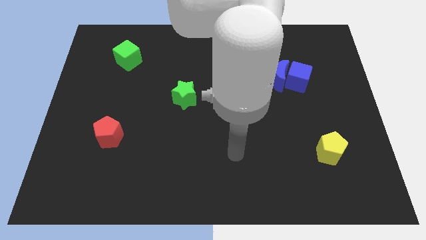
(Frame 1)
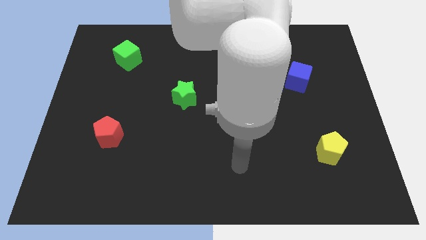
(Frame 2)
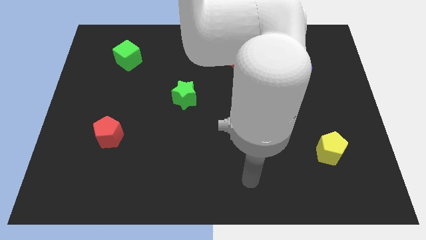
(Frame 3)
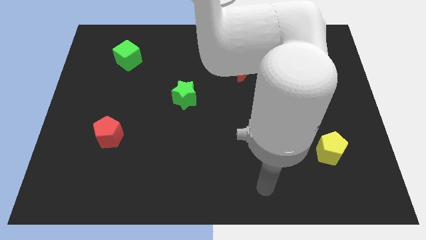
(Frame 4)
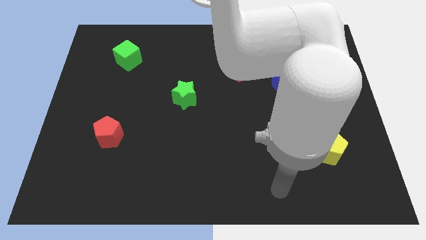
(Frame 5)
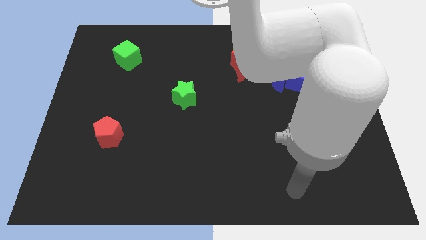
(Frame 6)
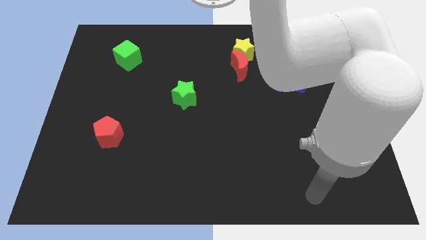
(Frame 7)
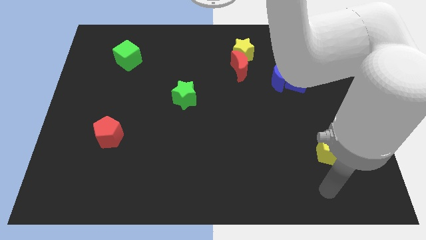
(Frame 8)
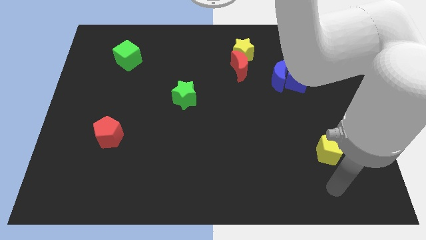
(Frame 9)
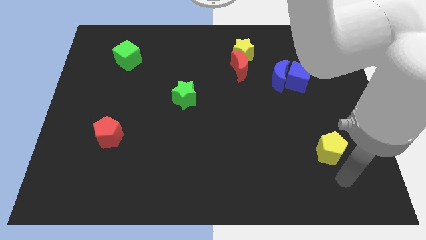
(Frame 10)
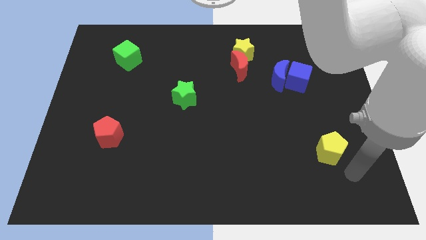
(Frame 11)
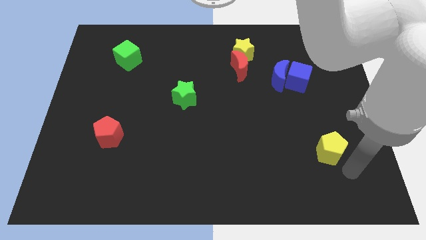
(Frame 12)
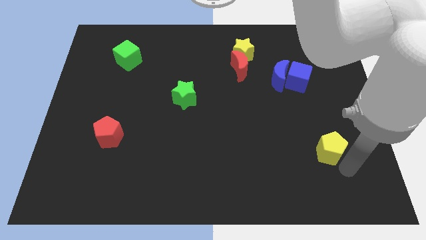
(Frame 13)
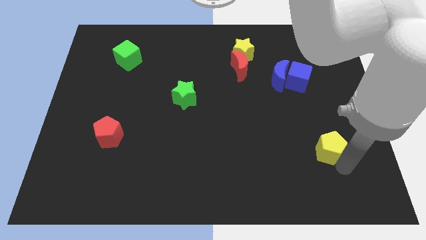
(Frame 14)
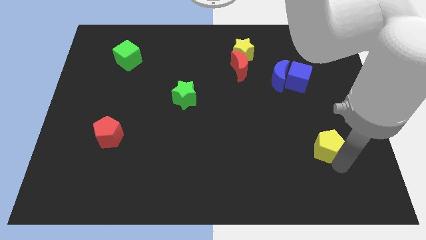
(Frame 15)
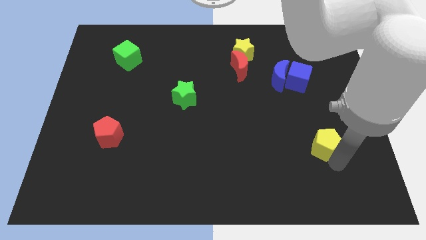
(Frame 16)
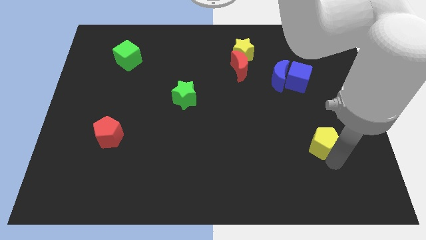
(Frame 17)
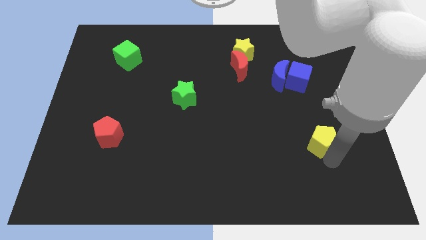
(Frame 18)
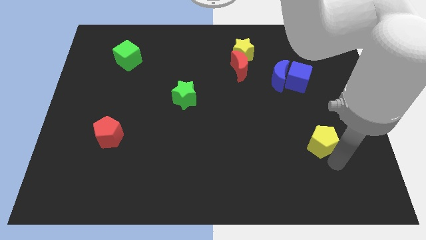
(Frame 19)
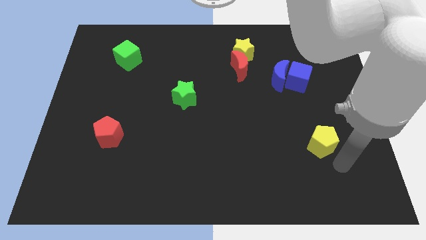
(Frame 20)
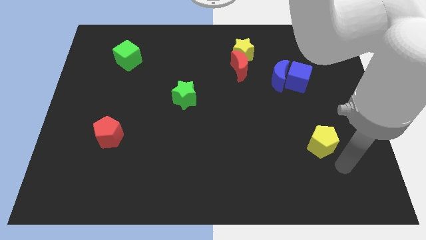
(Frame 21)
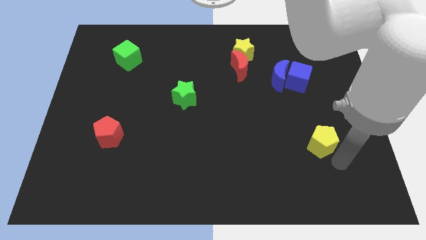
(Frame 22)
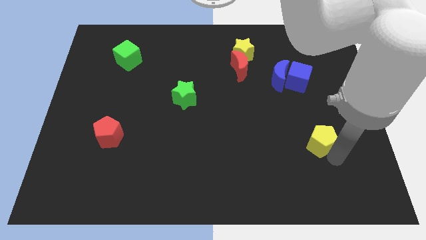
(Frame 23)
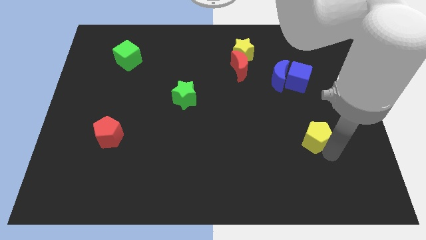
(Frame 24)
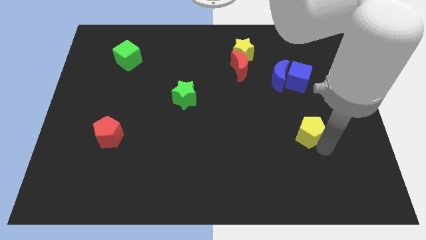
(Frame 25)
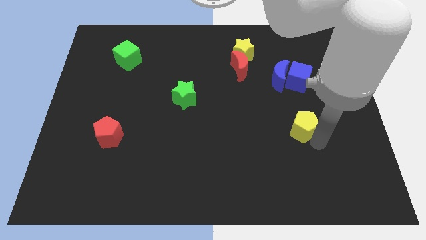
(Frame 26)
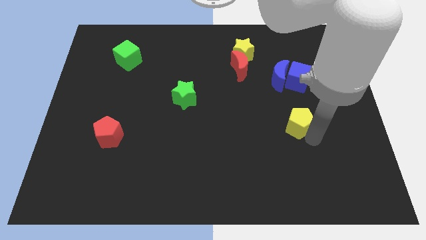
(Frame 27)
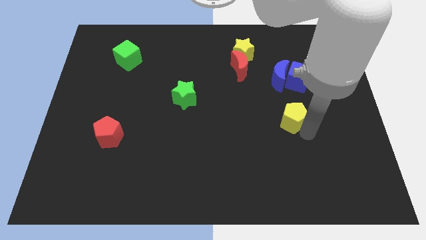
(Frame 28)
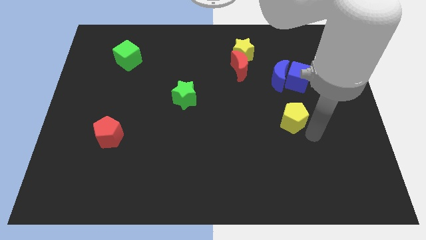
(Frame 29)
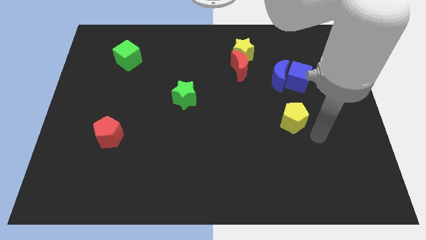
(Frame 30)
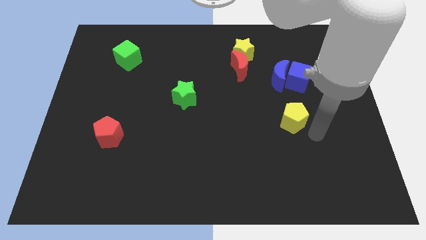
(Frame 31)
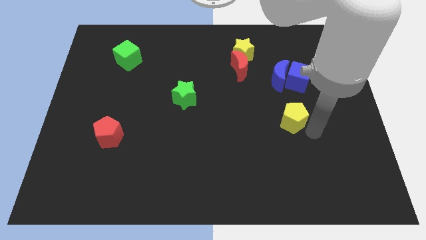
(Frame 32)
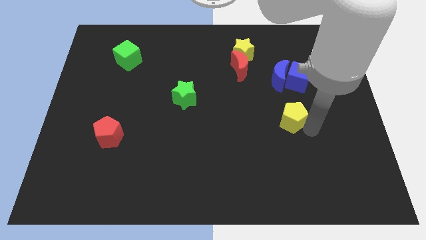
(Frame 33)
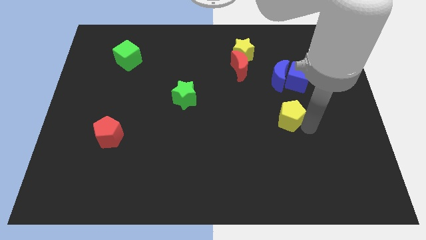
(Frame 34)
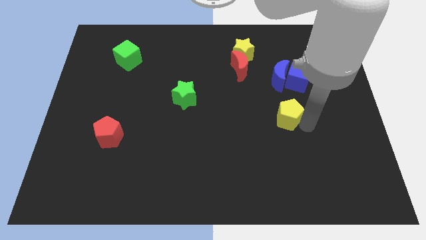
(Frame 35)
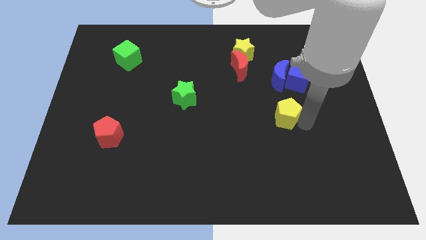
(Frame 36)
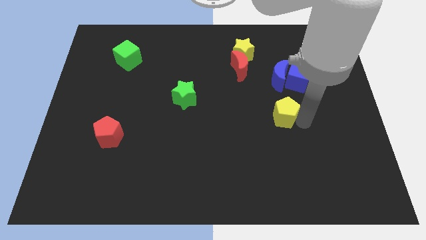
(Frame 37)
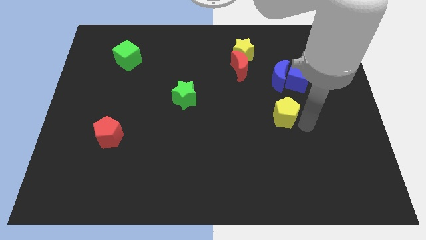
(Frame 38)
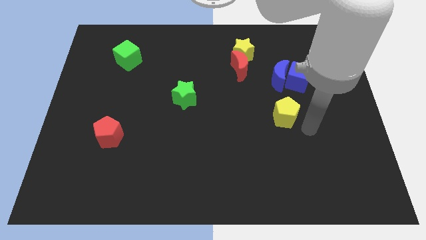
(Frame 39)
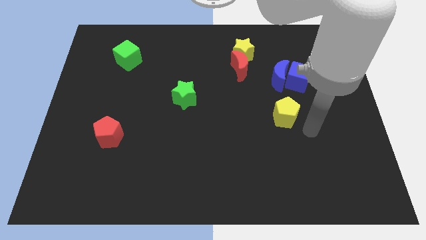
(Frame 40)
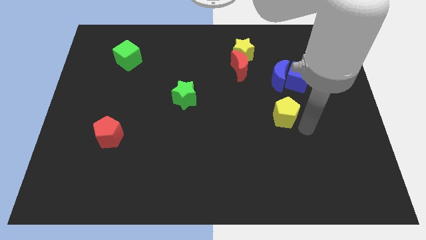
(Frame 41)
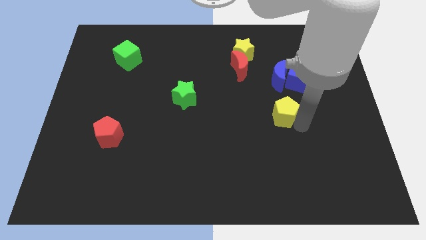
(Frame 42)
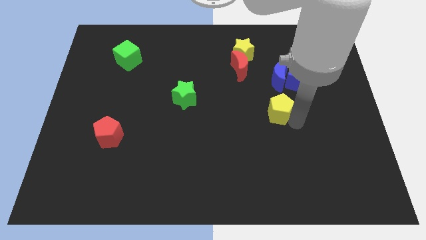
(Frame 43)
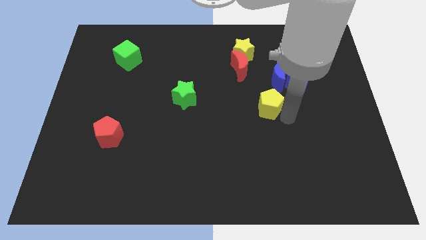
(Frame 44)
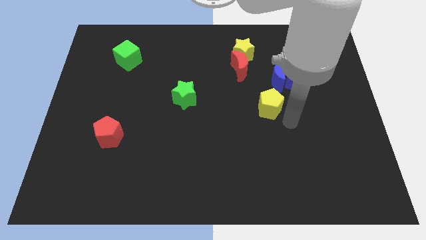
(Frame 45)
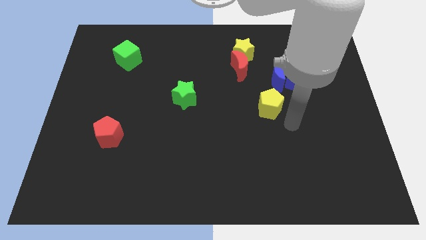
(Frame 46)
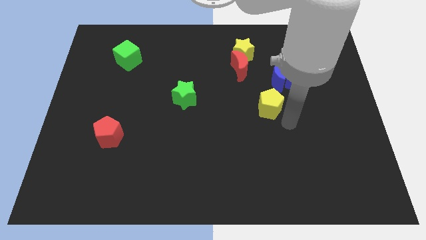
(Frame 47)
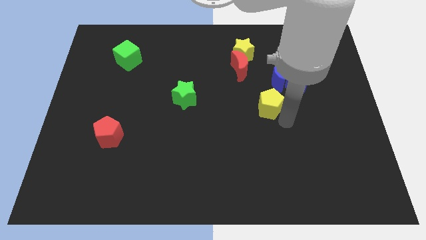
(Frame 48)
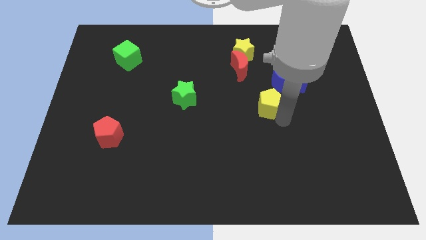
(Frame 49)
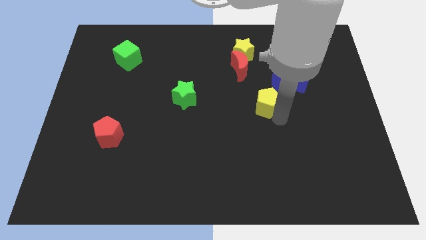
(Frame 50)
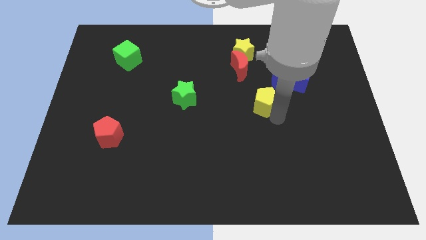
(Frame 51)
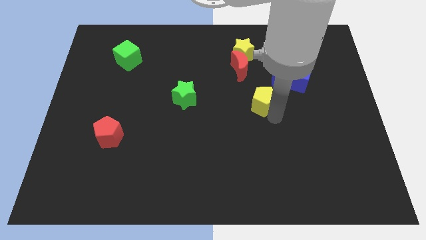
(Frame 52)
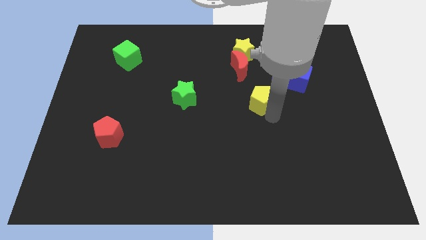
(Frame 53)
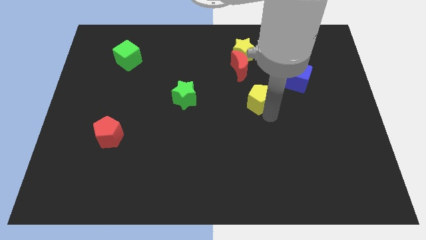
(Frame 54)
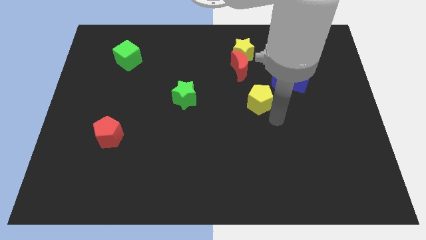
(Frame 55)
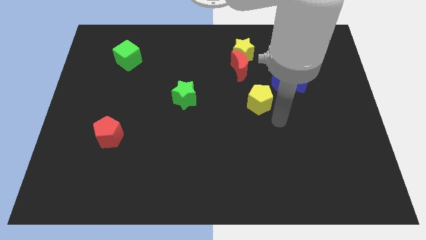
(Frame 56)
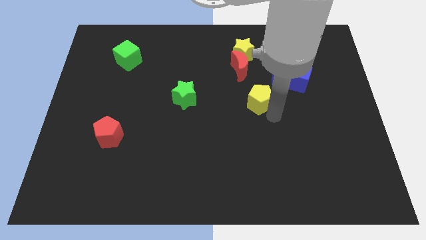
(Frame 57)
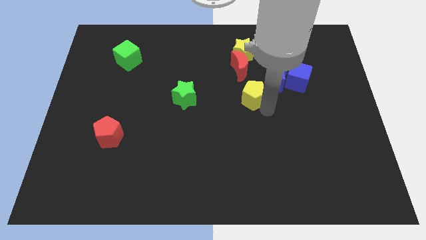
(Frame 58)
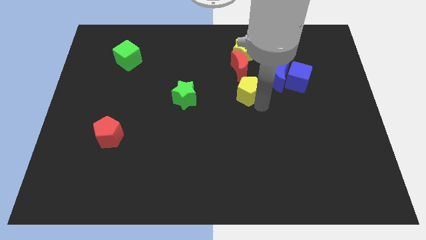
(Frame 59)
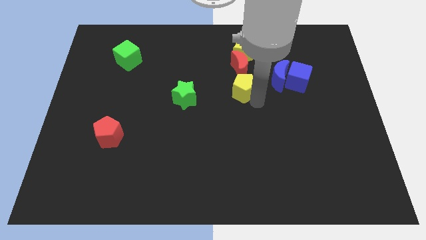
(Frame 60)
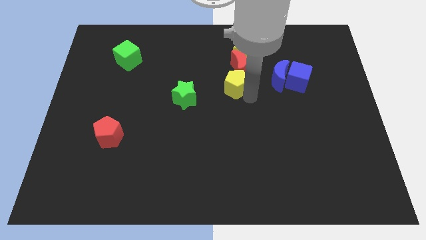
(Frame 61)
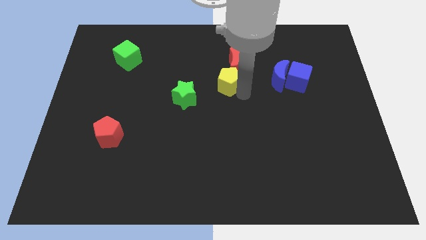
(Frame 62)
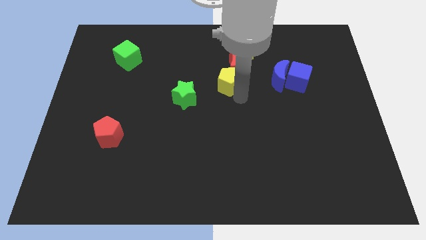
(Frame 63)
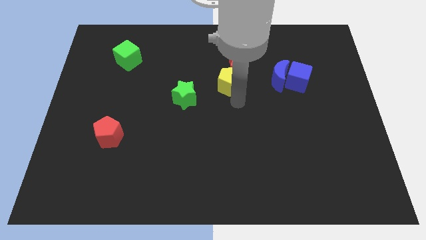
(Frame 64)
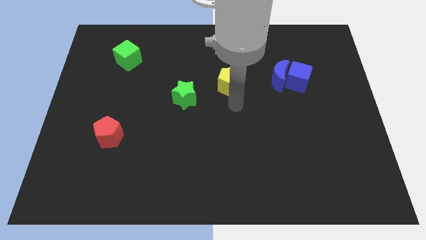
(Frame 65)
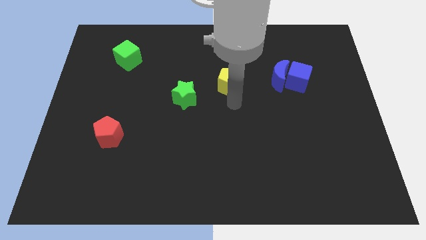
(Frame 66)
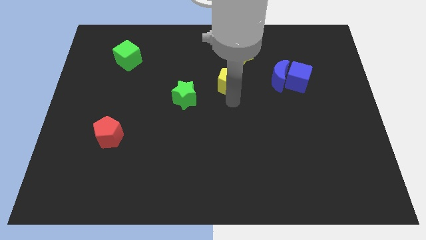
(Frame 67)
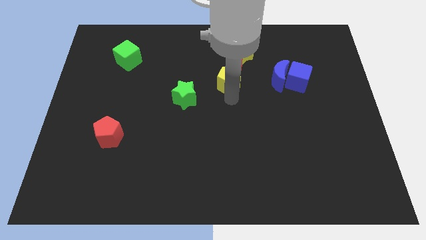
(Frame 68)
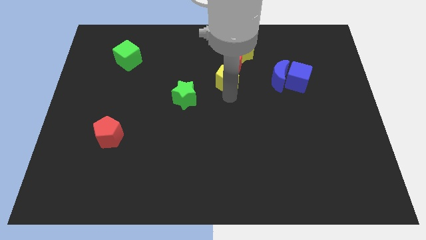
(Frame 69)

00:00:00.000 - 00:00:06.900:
put the yellow pentagon to the bottom left side of the yellow star
